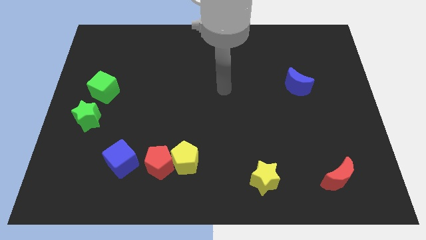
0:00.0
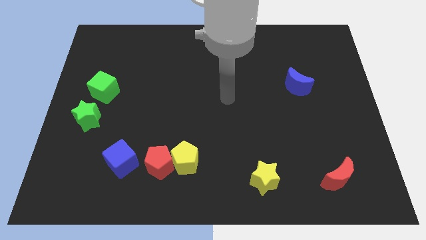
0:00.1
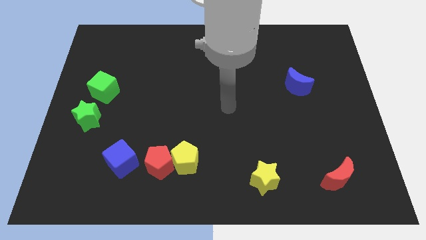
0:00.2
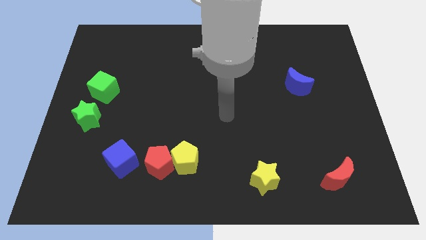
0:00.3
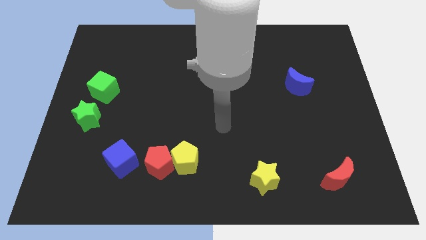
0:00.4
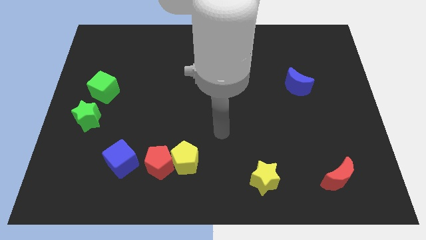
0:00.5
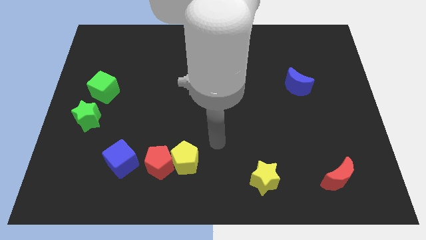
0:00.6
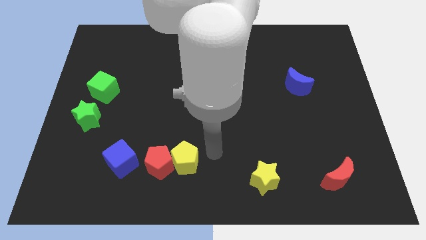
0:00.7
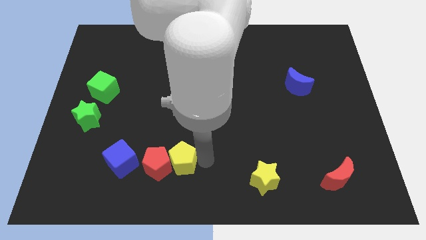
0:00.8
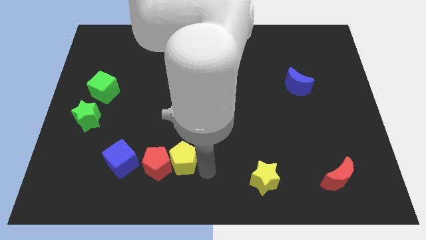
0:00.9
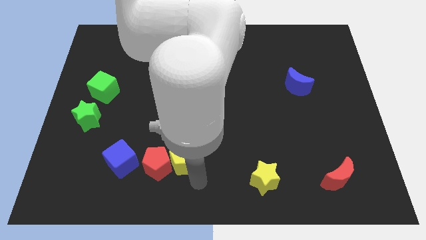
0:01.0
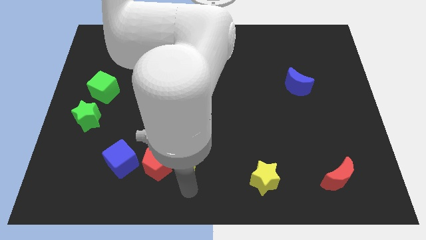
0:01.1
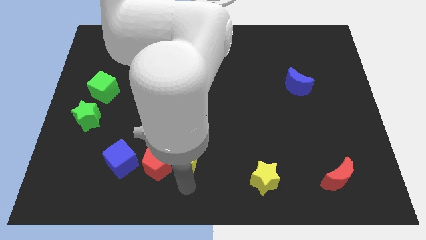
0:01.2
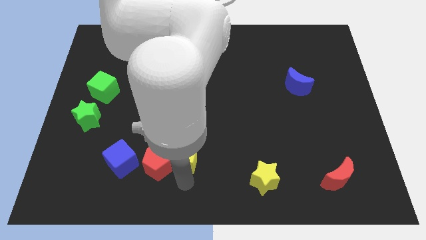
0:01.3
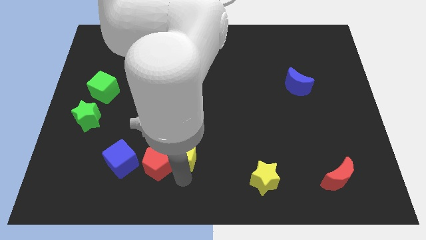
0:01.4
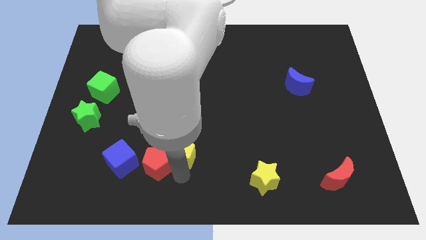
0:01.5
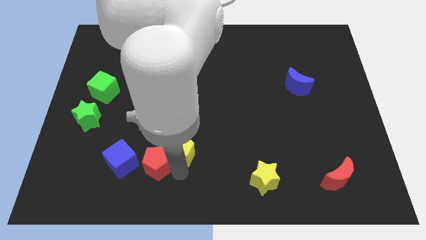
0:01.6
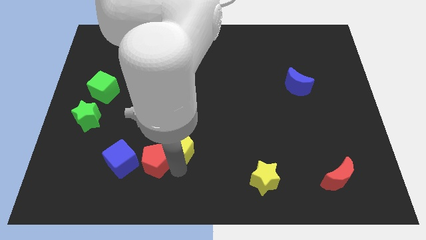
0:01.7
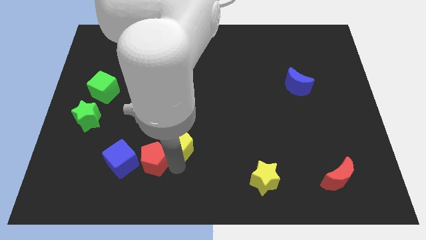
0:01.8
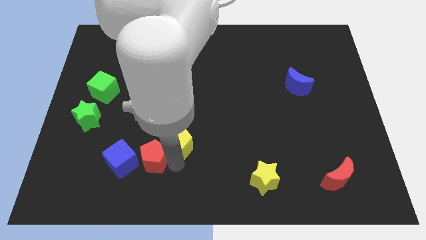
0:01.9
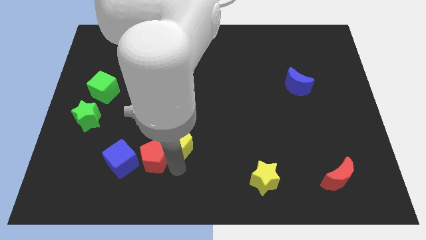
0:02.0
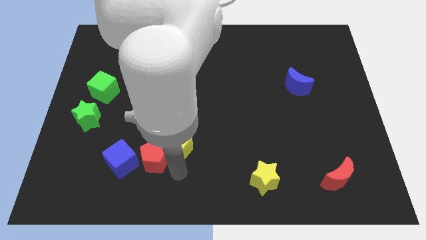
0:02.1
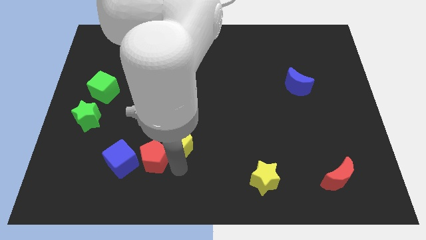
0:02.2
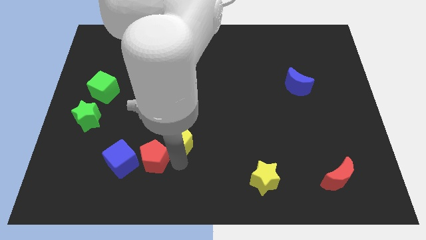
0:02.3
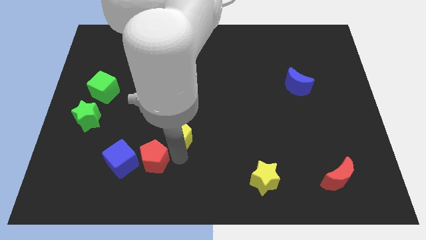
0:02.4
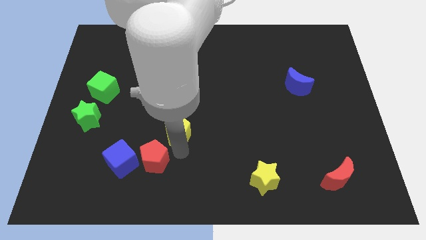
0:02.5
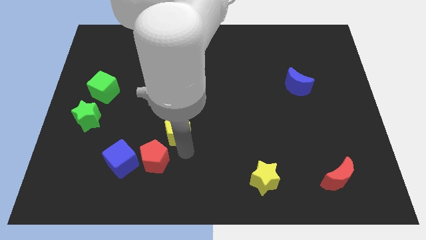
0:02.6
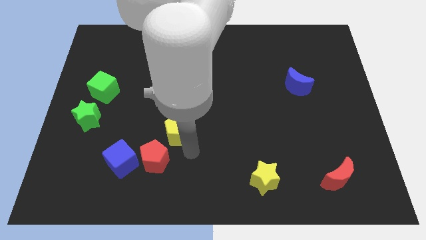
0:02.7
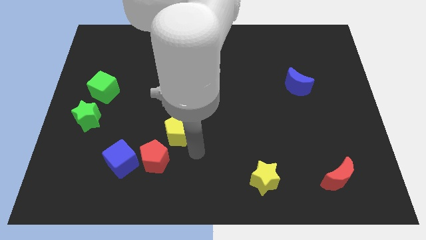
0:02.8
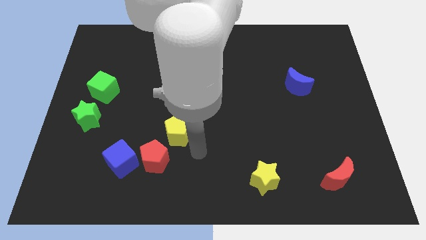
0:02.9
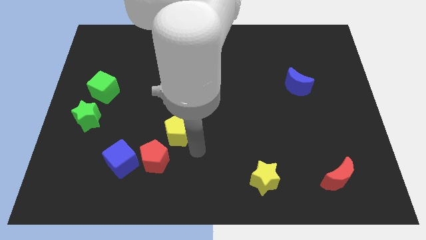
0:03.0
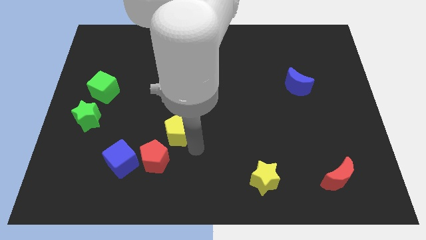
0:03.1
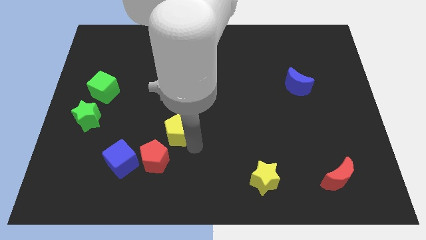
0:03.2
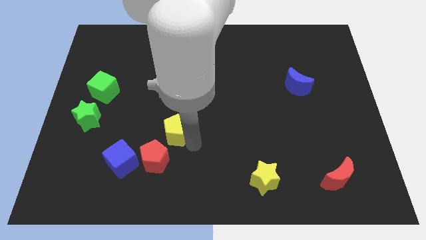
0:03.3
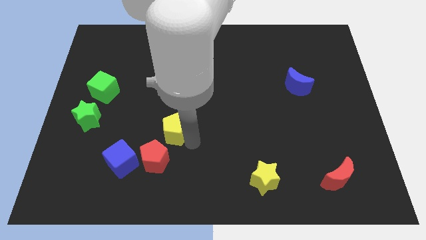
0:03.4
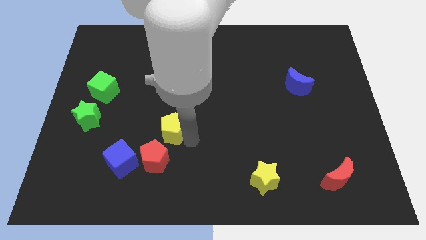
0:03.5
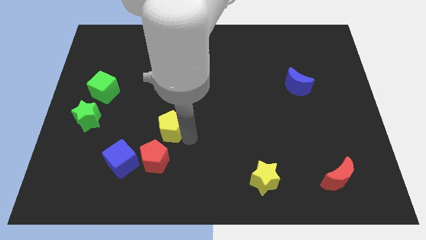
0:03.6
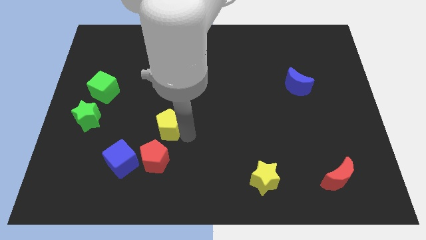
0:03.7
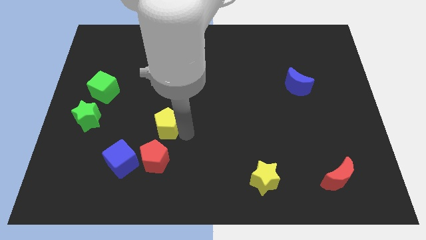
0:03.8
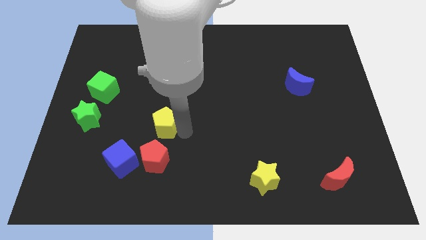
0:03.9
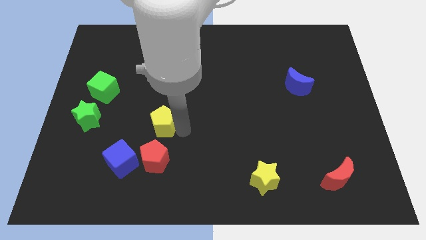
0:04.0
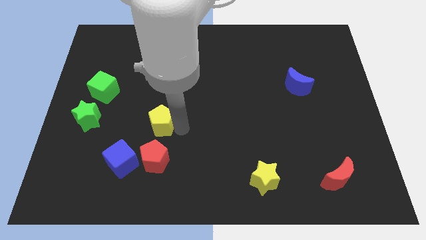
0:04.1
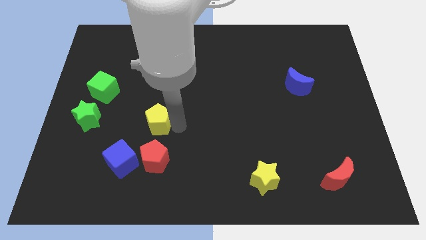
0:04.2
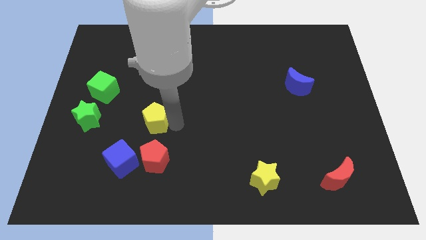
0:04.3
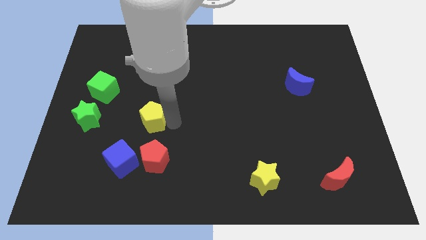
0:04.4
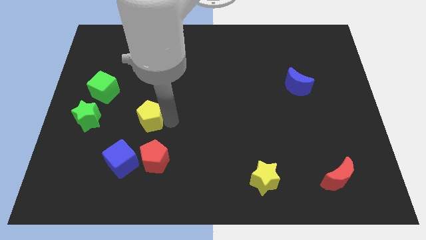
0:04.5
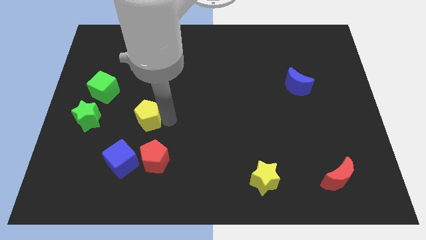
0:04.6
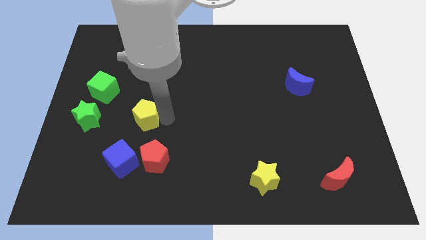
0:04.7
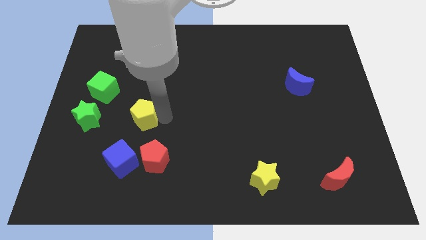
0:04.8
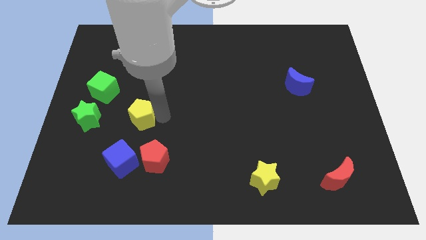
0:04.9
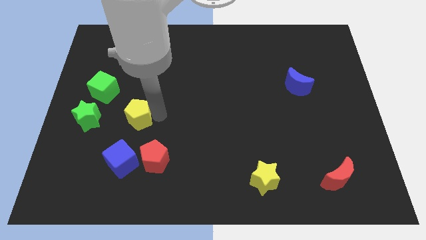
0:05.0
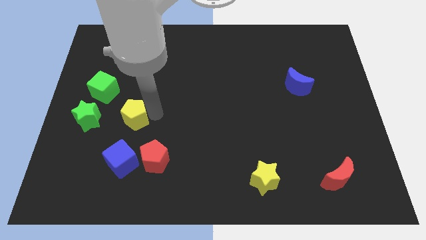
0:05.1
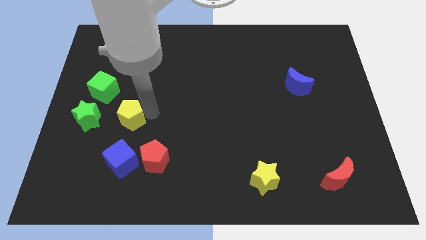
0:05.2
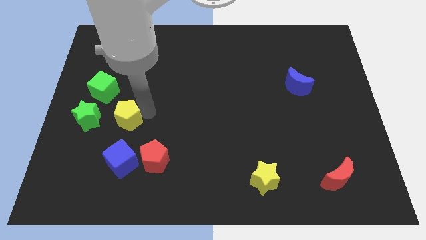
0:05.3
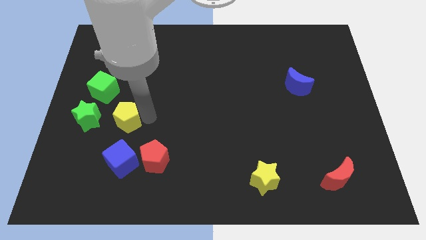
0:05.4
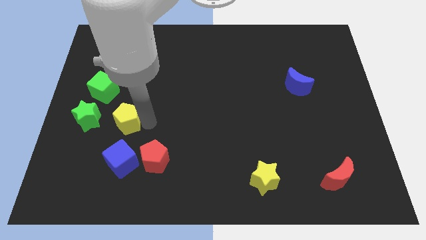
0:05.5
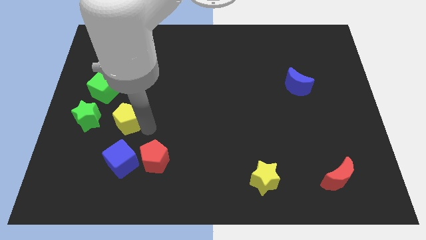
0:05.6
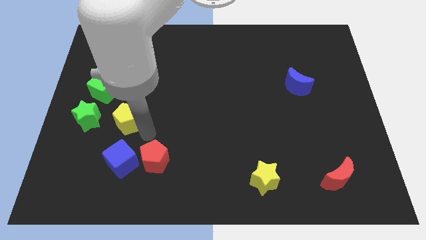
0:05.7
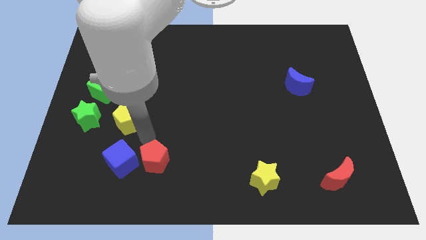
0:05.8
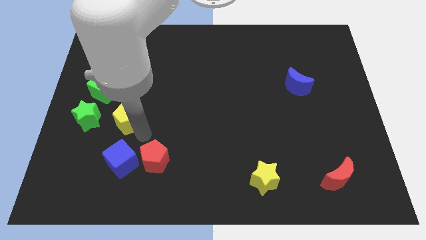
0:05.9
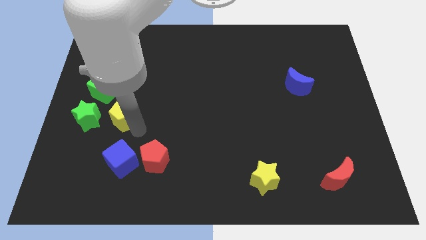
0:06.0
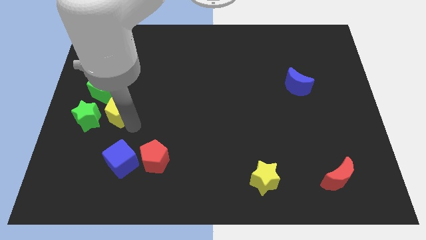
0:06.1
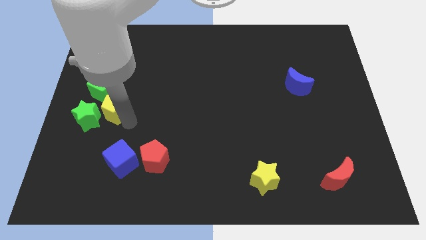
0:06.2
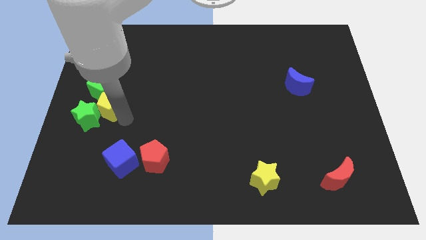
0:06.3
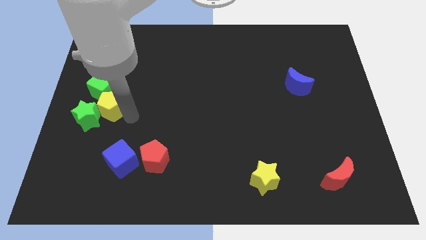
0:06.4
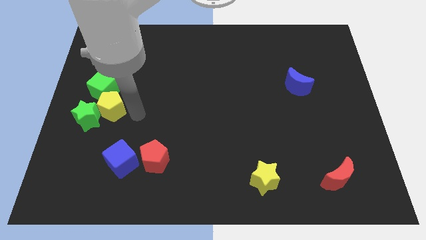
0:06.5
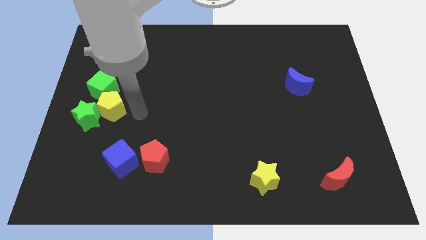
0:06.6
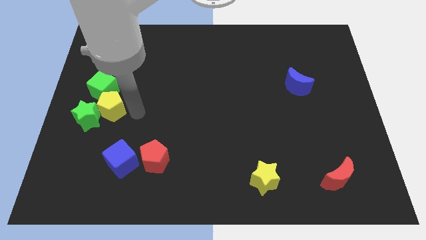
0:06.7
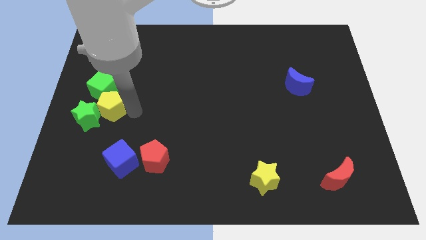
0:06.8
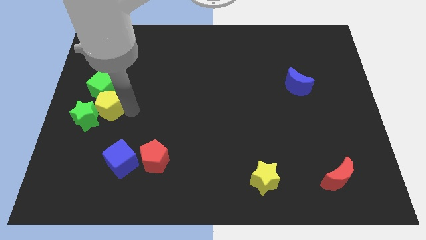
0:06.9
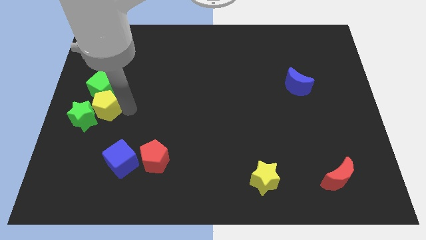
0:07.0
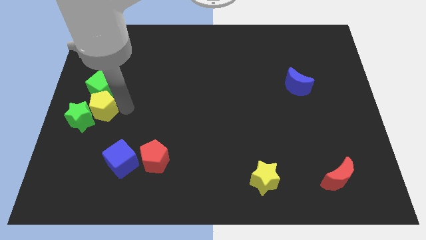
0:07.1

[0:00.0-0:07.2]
move the yellow pentagon to the left side

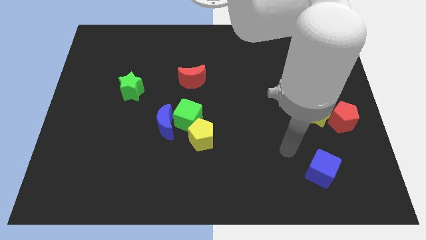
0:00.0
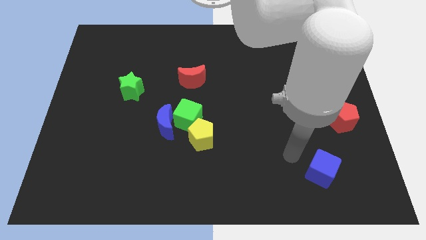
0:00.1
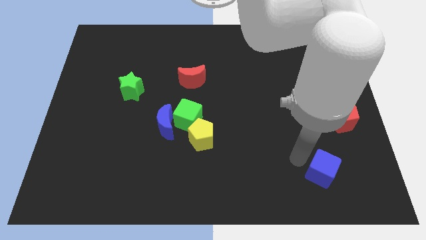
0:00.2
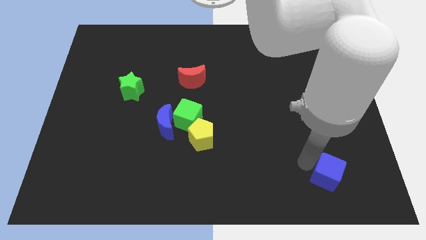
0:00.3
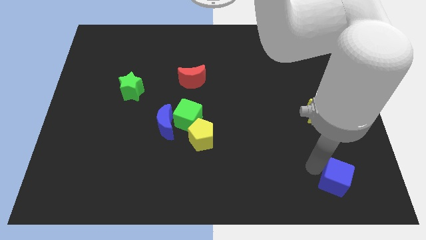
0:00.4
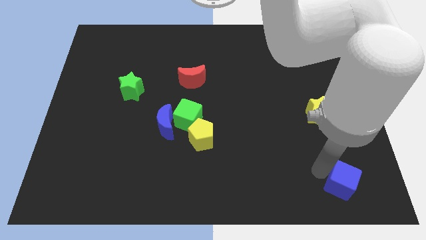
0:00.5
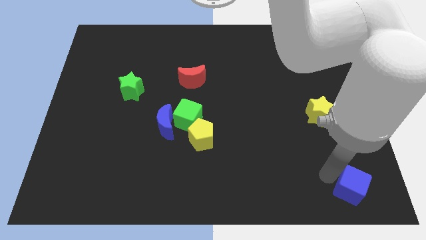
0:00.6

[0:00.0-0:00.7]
slide the blue cube to the bottom right
